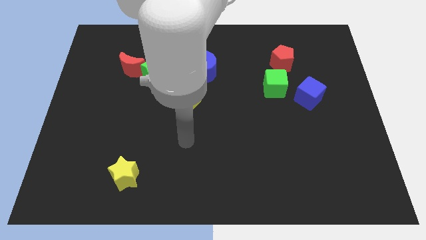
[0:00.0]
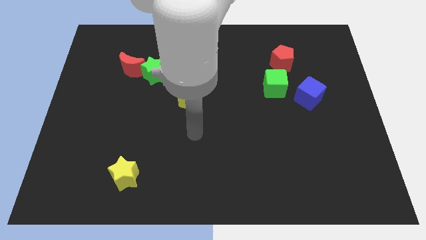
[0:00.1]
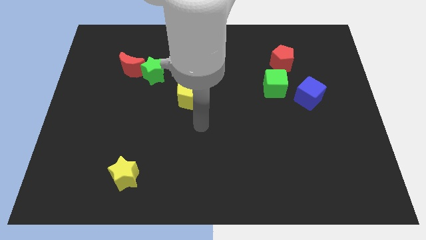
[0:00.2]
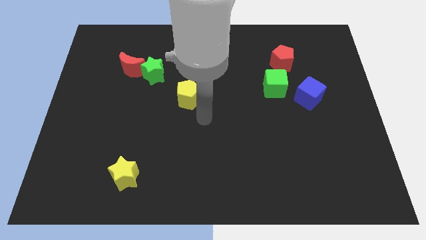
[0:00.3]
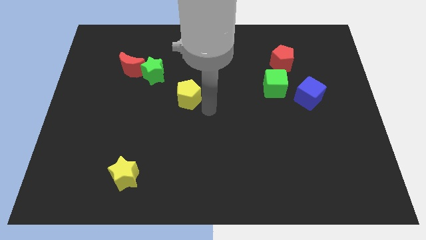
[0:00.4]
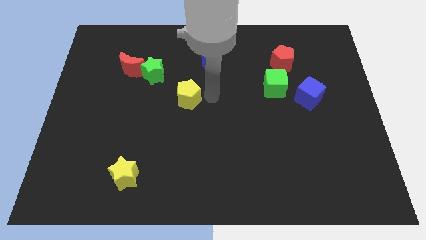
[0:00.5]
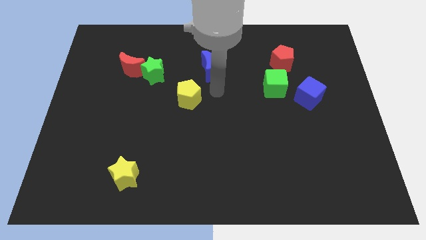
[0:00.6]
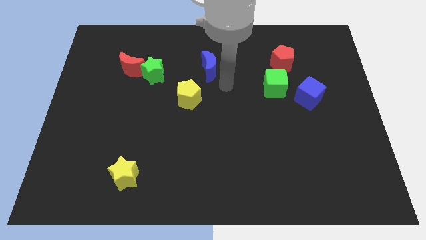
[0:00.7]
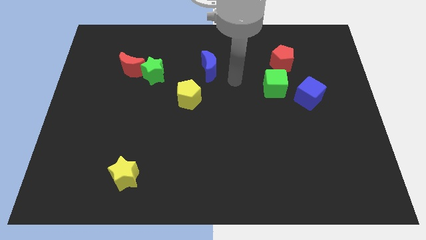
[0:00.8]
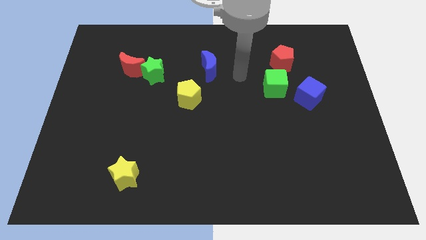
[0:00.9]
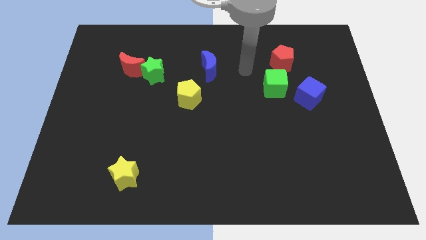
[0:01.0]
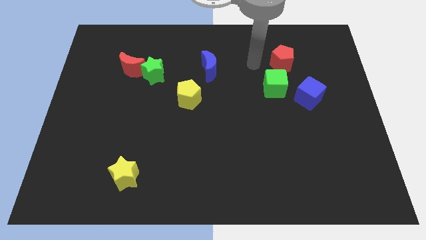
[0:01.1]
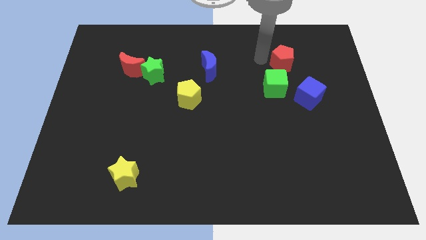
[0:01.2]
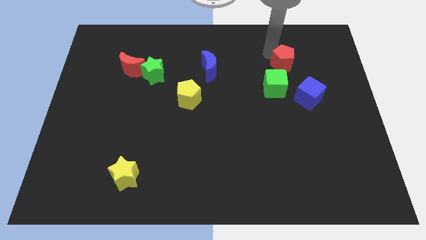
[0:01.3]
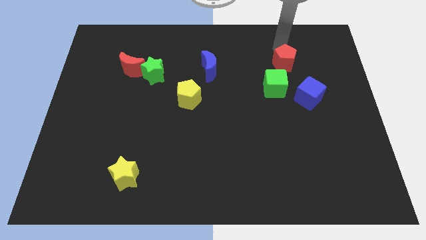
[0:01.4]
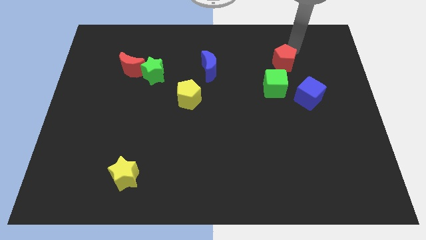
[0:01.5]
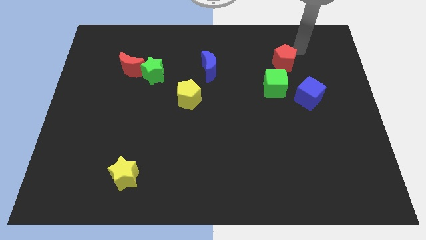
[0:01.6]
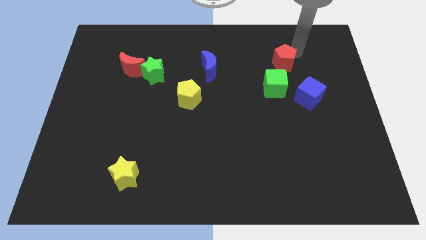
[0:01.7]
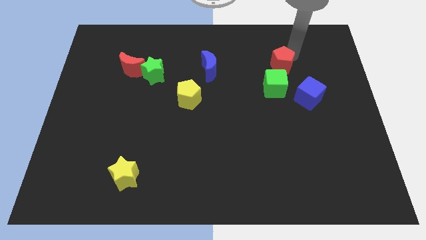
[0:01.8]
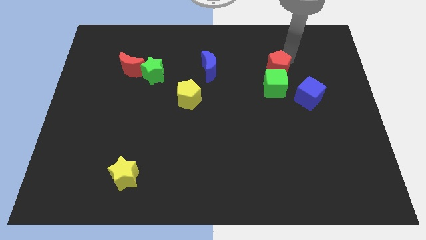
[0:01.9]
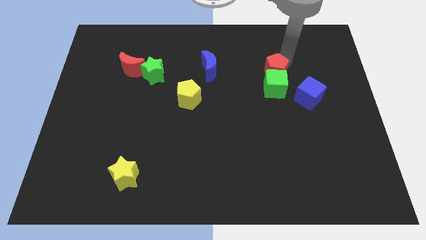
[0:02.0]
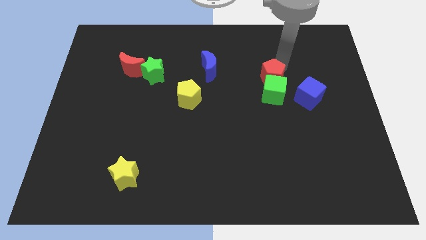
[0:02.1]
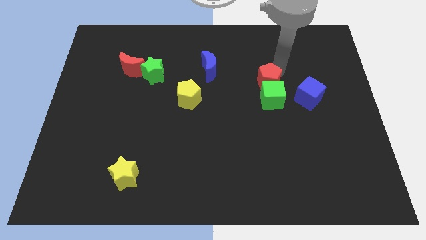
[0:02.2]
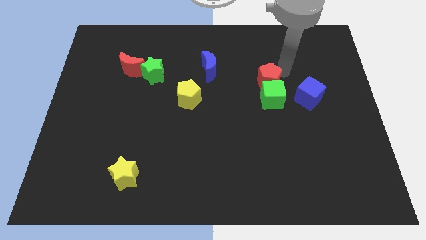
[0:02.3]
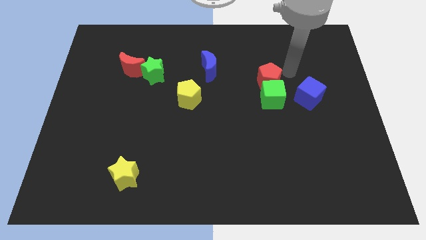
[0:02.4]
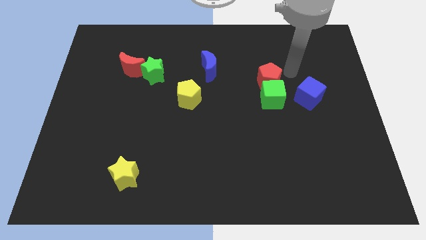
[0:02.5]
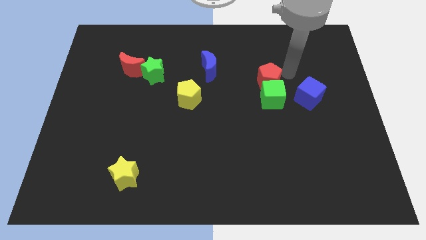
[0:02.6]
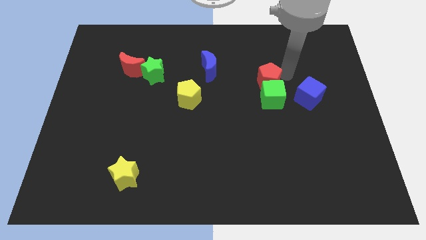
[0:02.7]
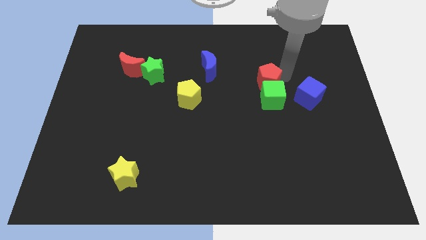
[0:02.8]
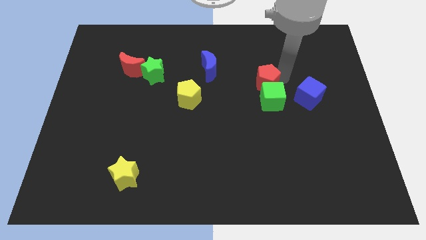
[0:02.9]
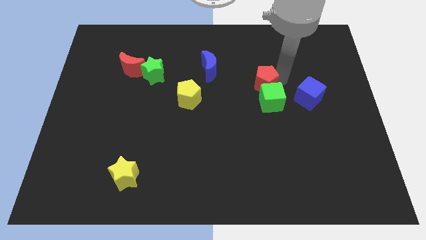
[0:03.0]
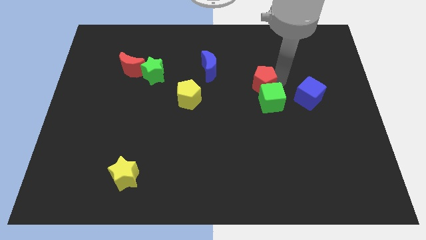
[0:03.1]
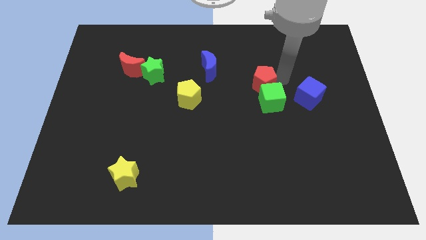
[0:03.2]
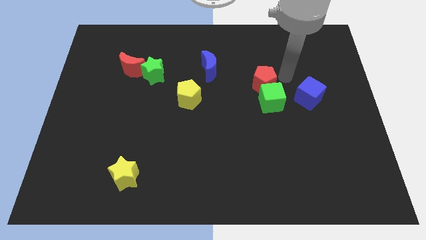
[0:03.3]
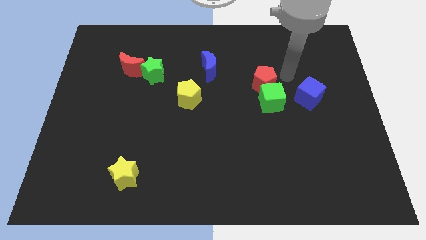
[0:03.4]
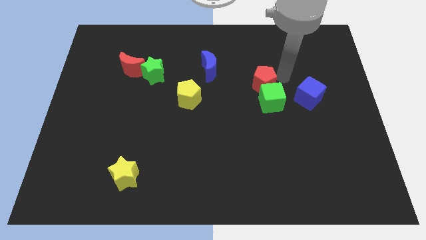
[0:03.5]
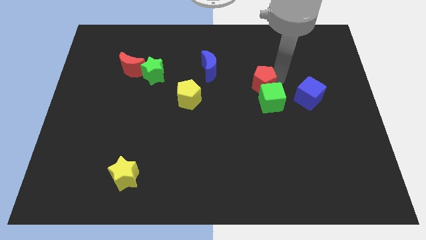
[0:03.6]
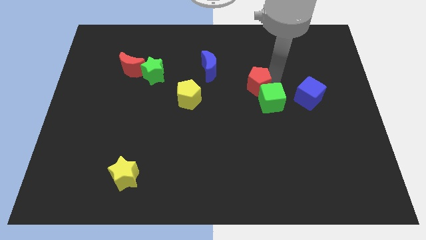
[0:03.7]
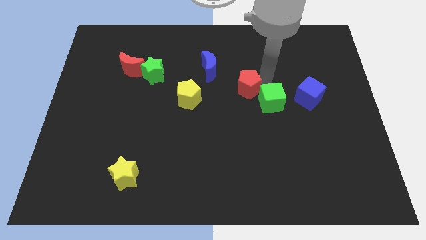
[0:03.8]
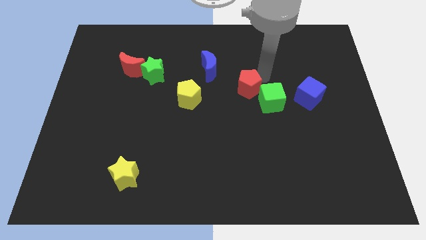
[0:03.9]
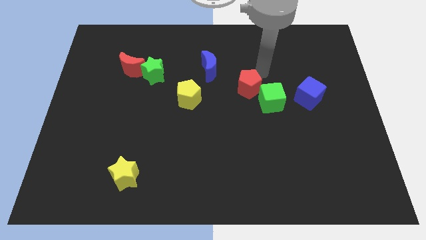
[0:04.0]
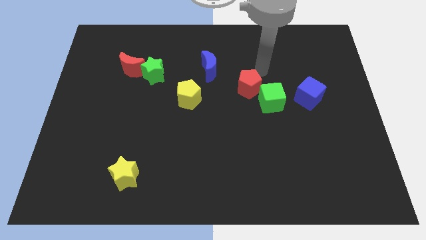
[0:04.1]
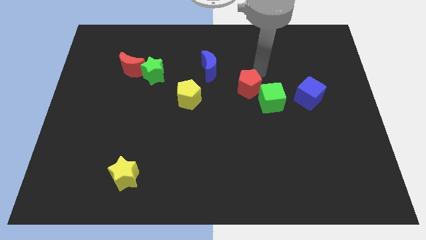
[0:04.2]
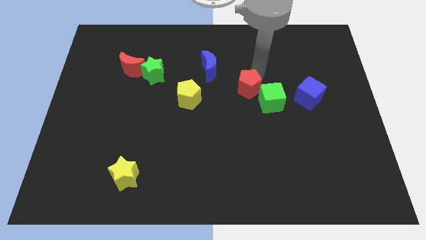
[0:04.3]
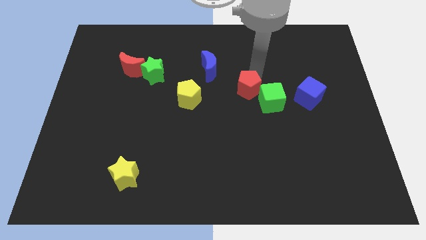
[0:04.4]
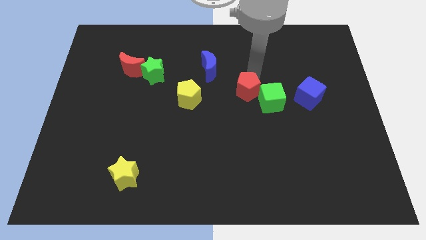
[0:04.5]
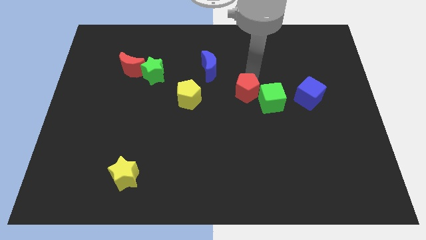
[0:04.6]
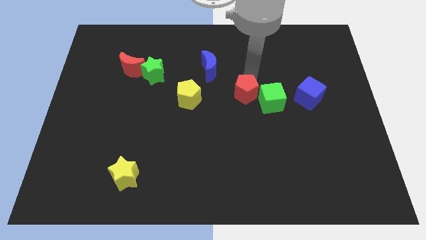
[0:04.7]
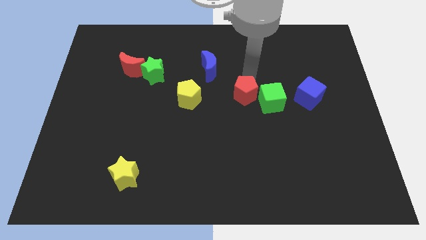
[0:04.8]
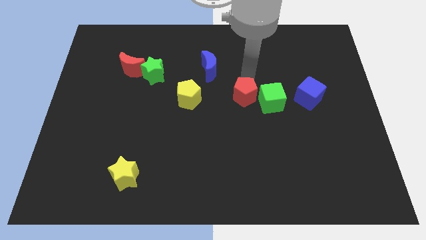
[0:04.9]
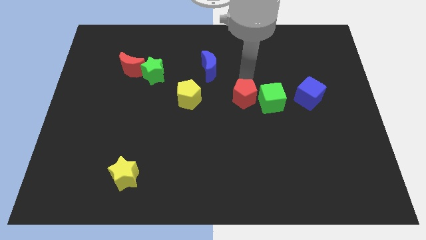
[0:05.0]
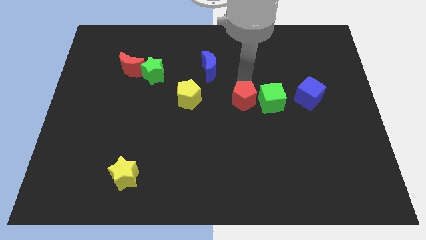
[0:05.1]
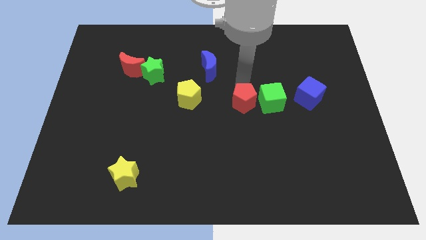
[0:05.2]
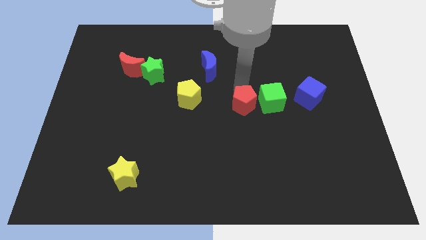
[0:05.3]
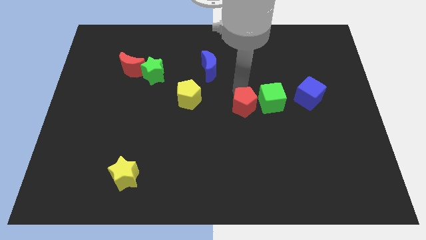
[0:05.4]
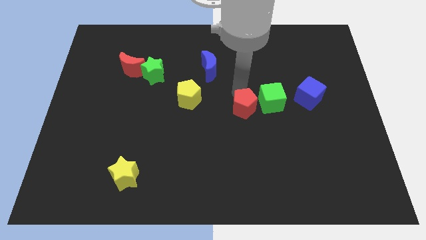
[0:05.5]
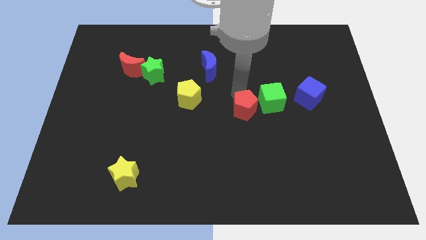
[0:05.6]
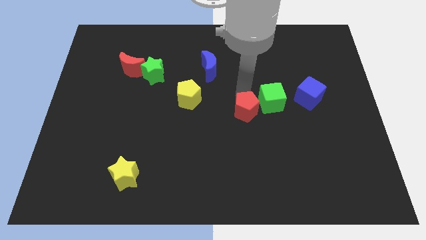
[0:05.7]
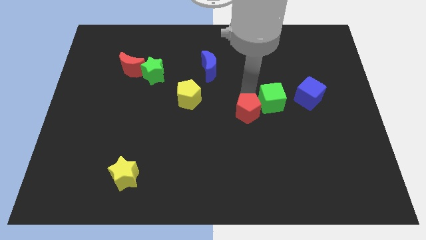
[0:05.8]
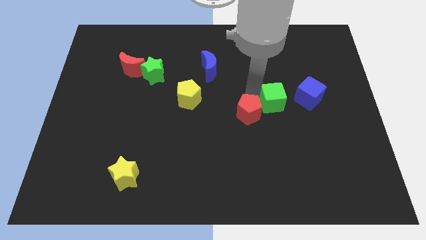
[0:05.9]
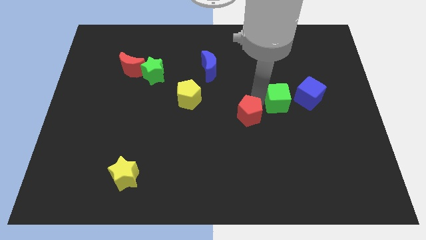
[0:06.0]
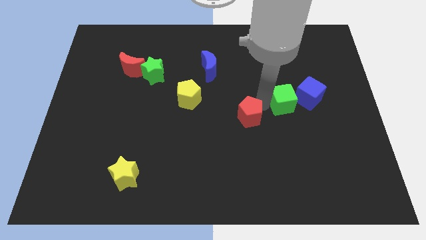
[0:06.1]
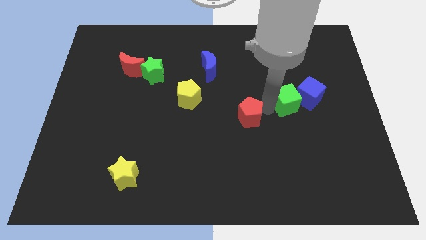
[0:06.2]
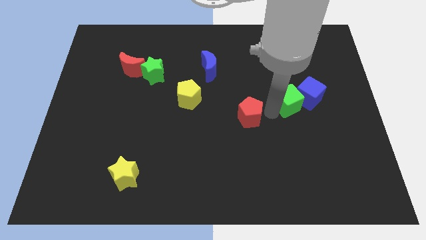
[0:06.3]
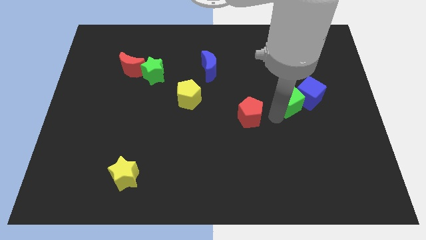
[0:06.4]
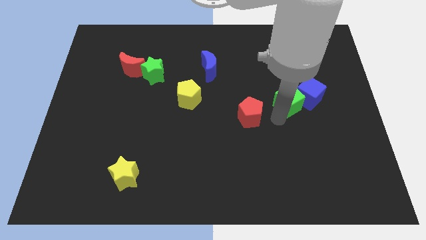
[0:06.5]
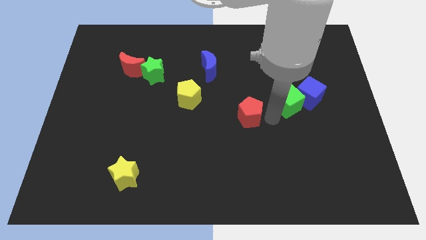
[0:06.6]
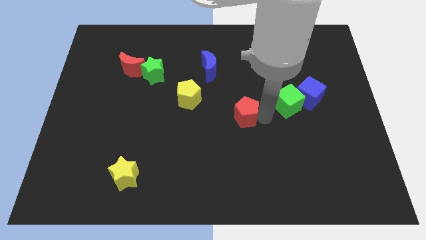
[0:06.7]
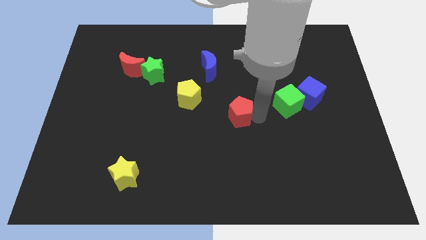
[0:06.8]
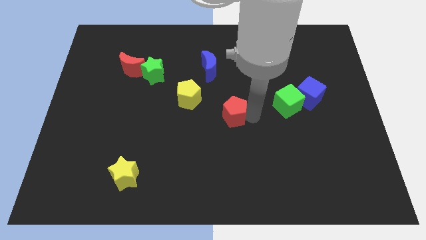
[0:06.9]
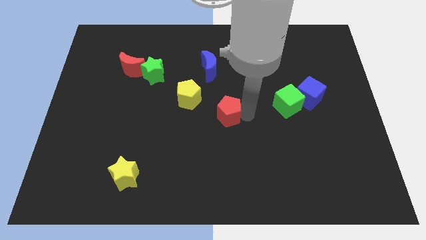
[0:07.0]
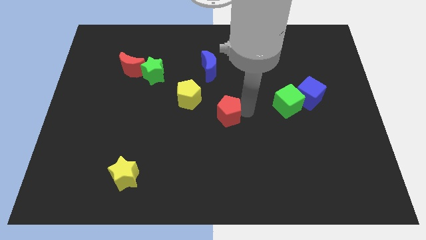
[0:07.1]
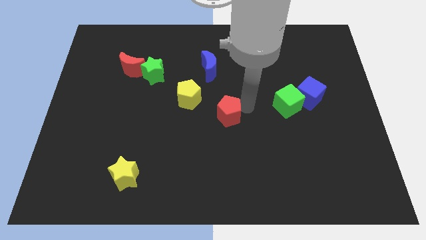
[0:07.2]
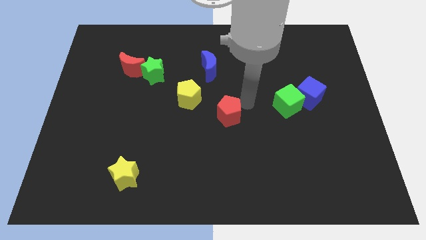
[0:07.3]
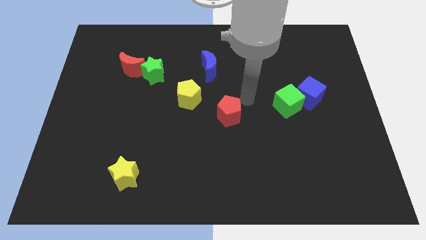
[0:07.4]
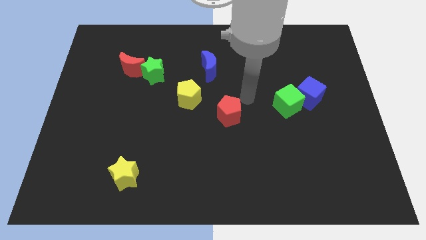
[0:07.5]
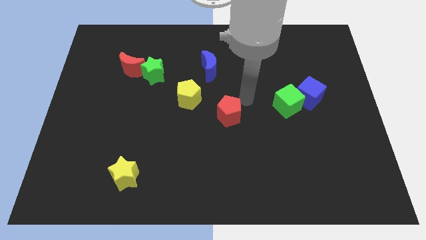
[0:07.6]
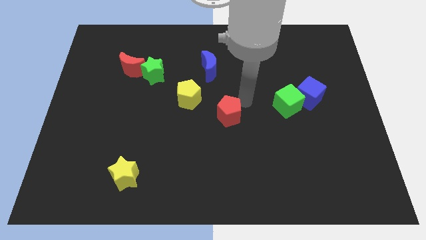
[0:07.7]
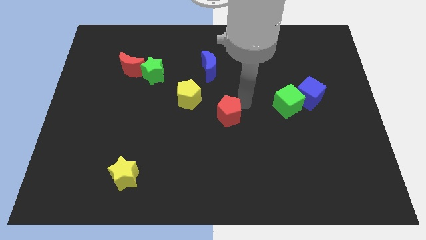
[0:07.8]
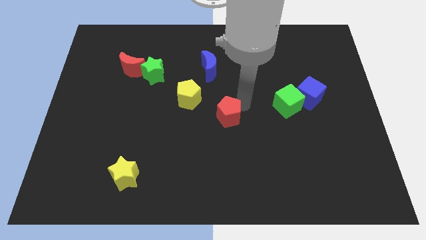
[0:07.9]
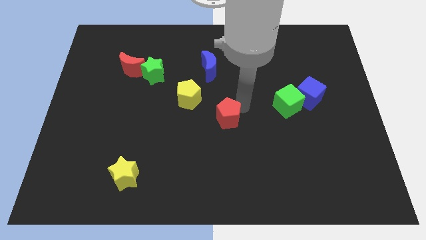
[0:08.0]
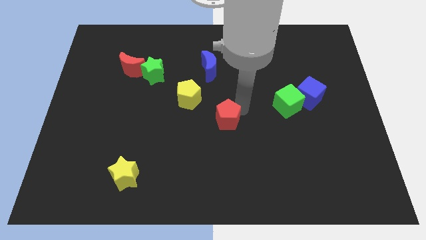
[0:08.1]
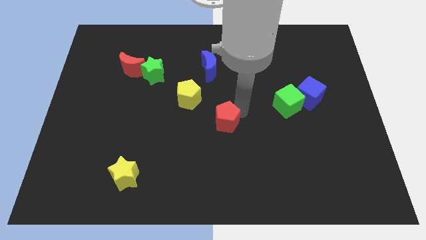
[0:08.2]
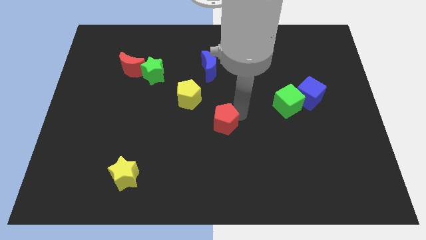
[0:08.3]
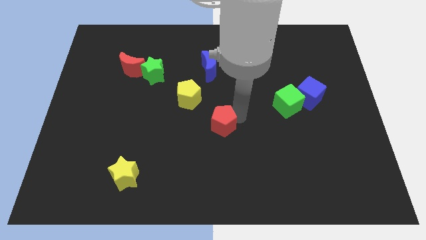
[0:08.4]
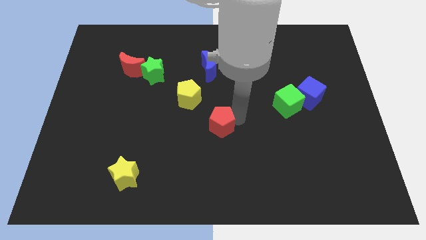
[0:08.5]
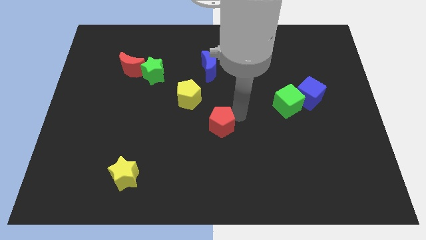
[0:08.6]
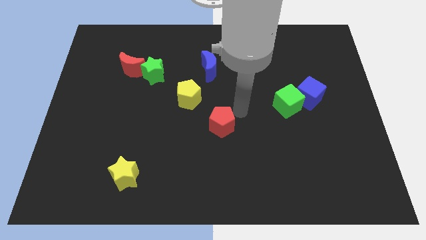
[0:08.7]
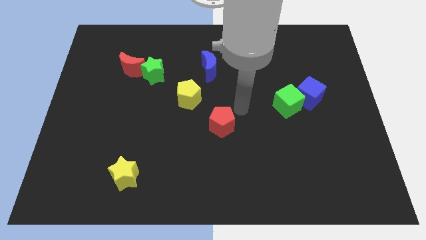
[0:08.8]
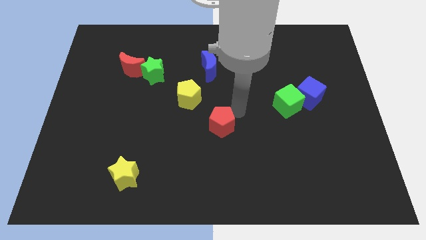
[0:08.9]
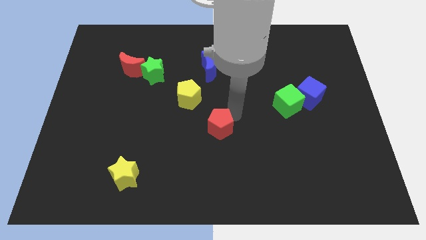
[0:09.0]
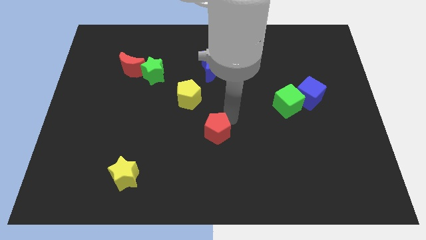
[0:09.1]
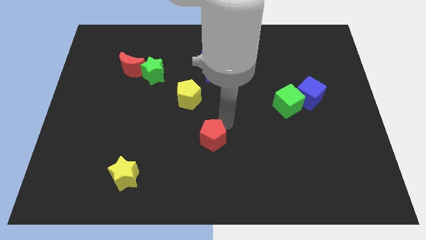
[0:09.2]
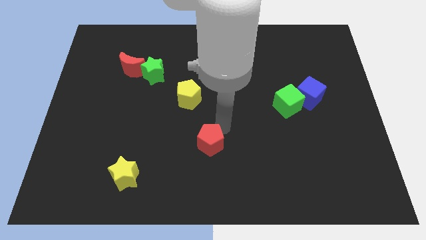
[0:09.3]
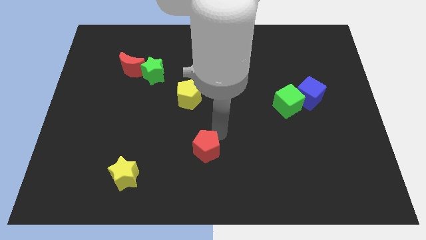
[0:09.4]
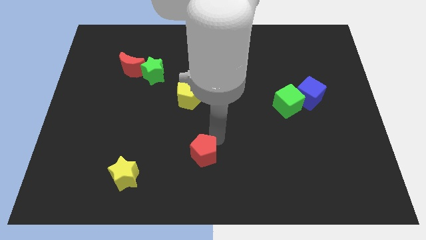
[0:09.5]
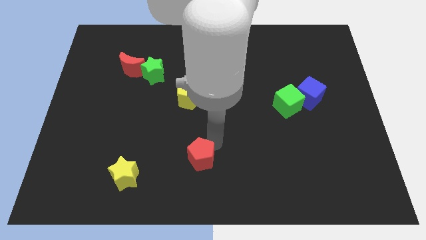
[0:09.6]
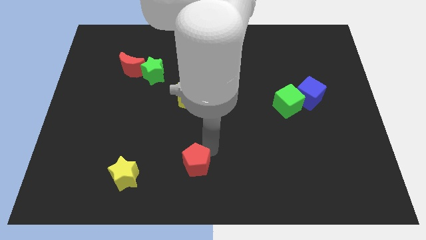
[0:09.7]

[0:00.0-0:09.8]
push the red pentagon right of the yellow star
